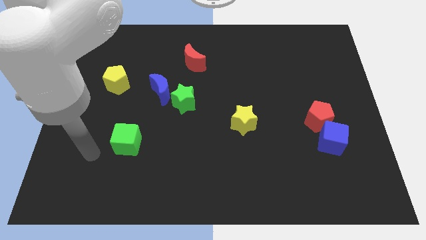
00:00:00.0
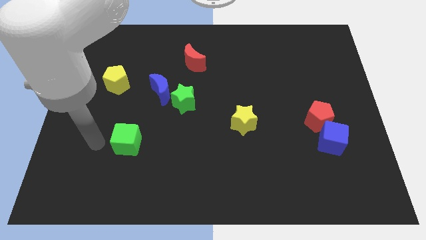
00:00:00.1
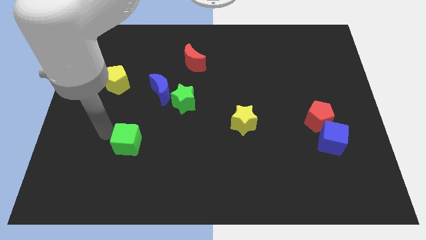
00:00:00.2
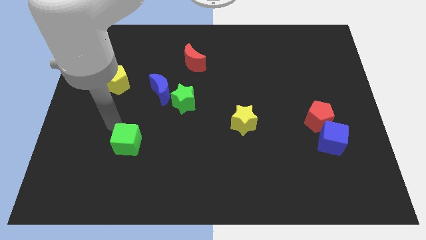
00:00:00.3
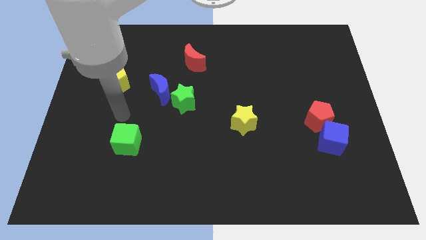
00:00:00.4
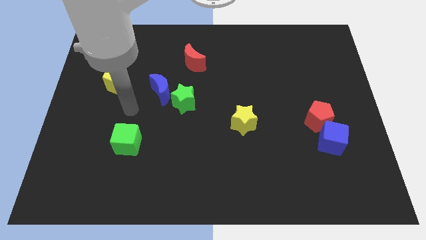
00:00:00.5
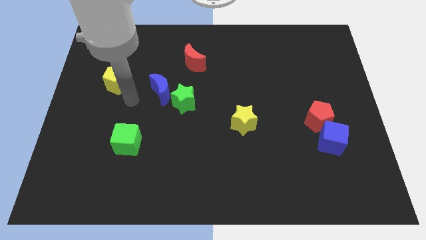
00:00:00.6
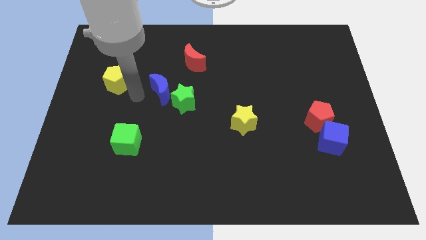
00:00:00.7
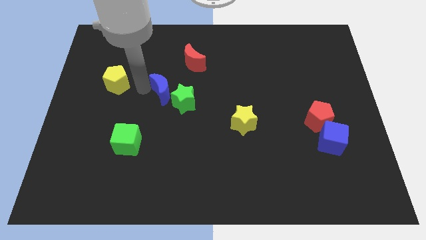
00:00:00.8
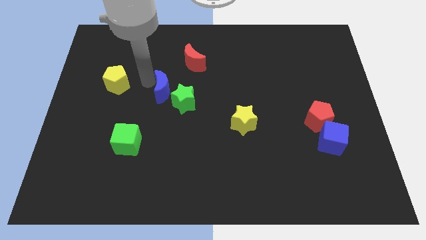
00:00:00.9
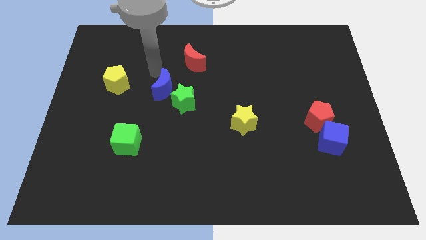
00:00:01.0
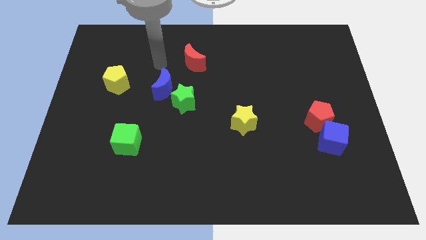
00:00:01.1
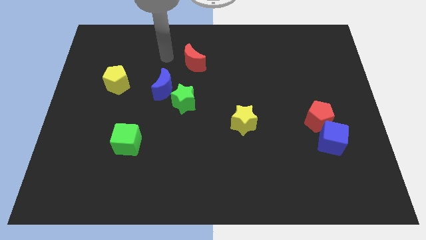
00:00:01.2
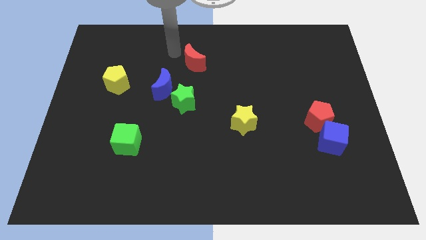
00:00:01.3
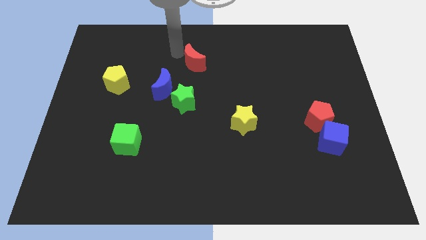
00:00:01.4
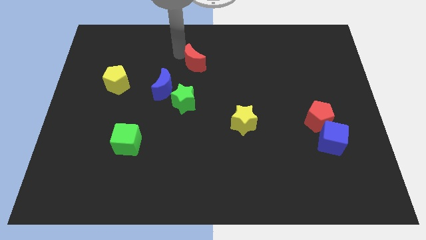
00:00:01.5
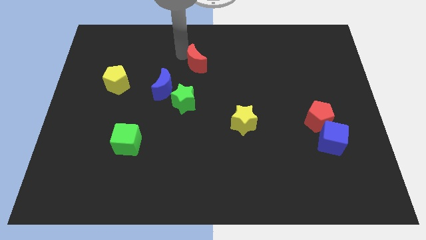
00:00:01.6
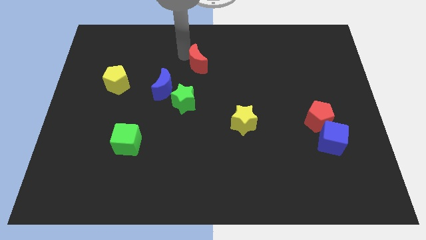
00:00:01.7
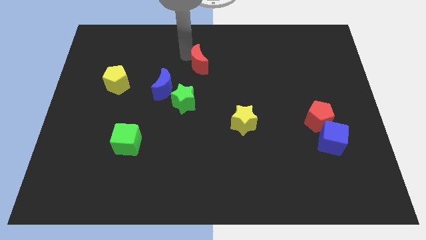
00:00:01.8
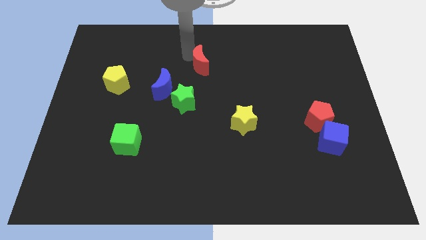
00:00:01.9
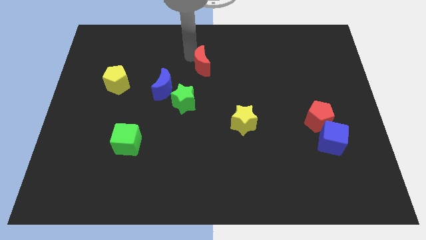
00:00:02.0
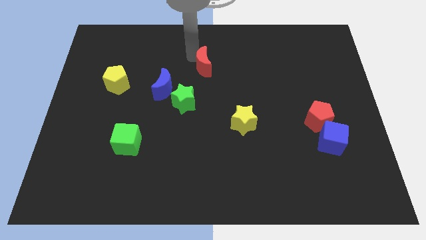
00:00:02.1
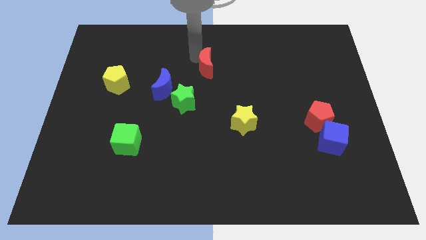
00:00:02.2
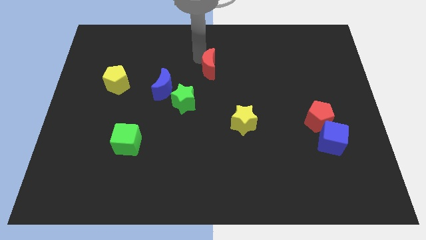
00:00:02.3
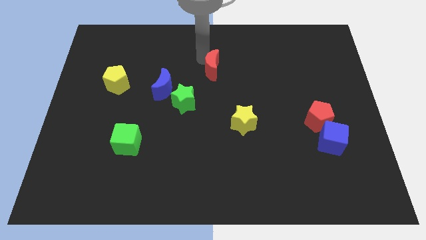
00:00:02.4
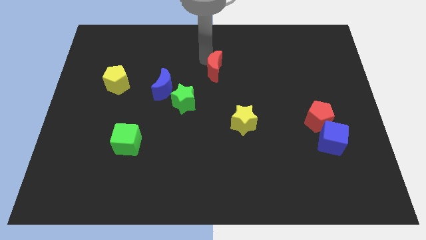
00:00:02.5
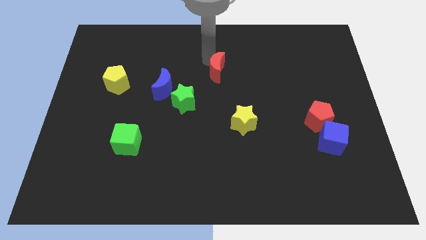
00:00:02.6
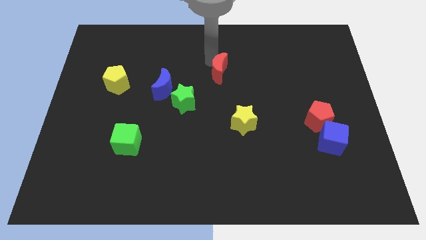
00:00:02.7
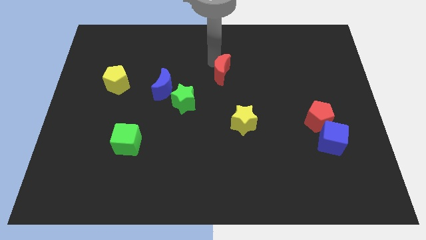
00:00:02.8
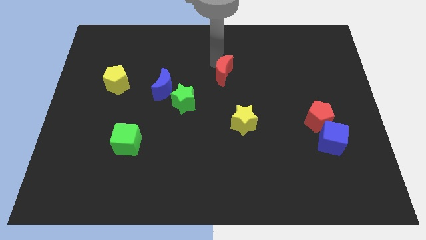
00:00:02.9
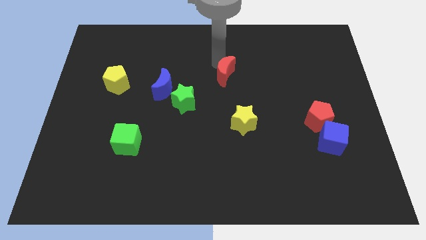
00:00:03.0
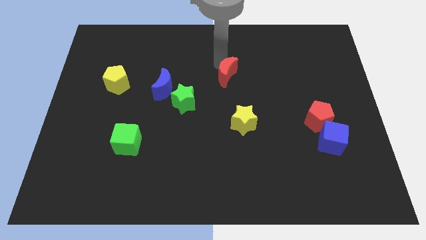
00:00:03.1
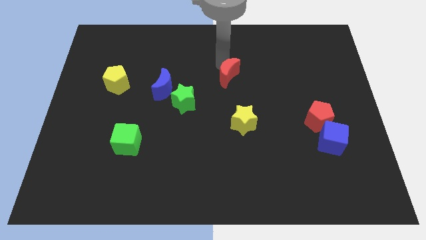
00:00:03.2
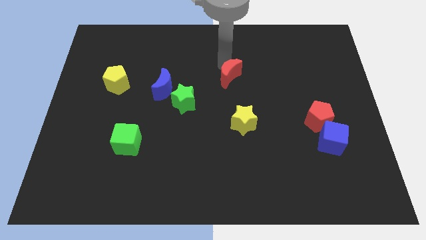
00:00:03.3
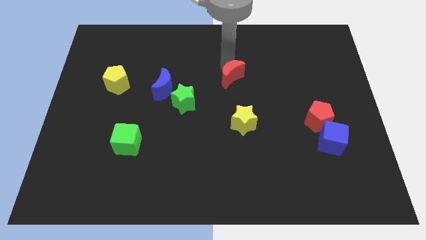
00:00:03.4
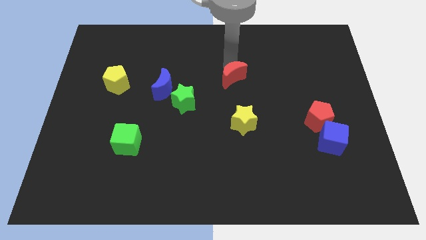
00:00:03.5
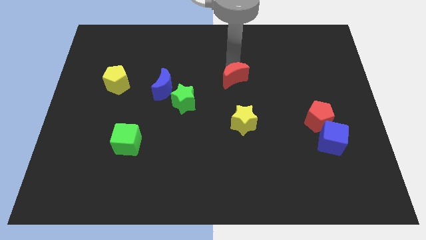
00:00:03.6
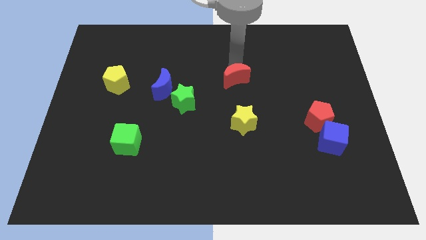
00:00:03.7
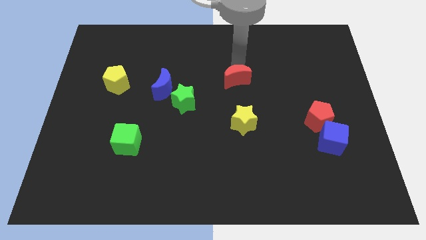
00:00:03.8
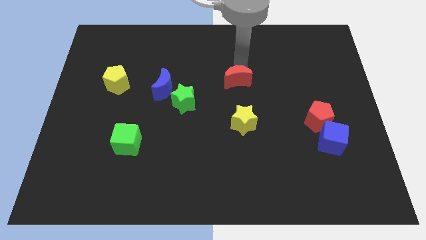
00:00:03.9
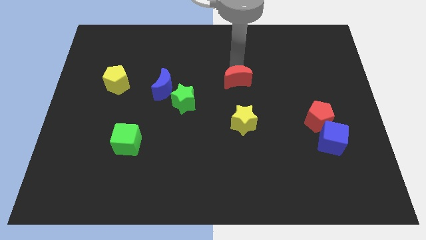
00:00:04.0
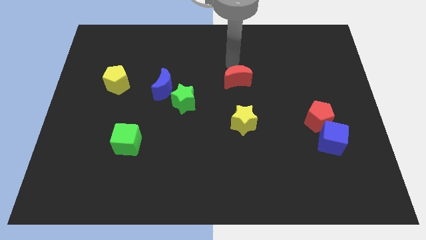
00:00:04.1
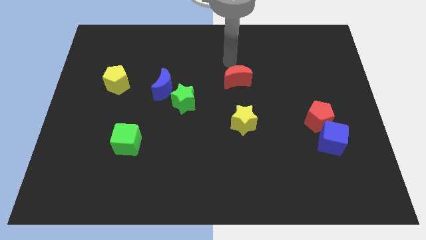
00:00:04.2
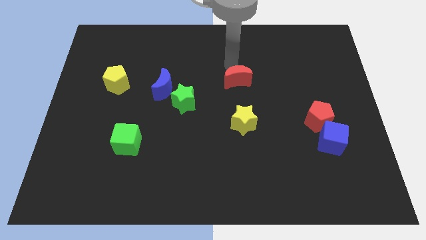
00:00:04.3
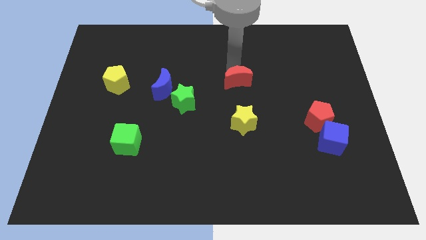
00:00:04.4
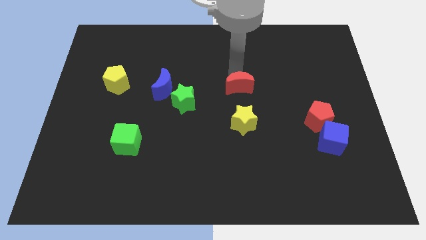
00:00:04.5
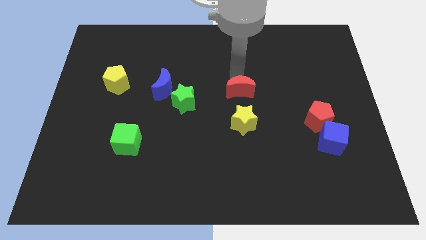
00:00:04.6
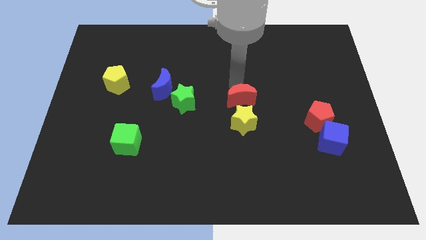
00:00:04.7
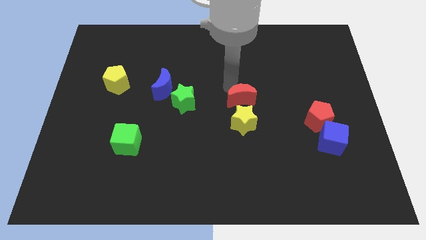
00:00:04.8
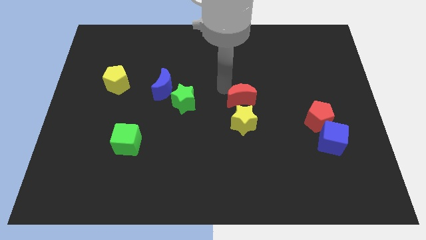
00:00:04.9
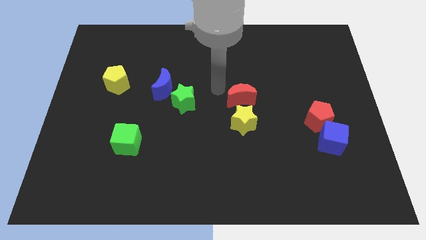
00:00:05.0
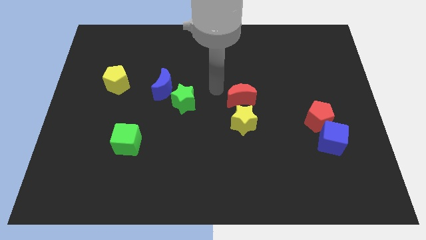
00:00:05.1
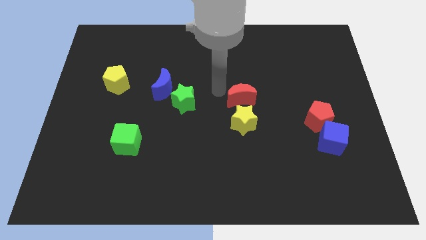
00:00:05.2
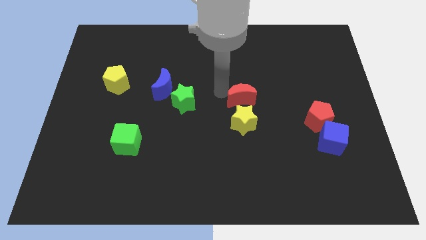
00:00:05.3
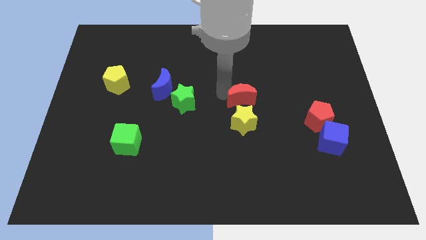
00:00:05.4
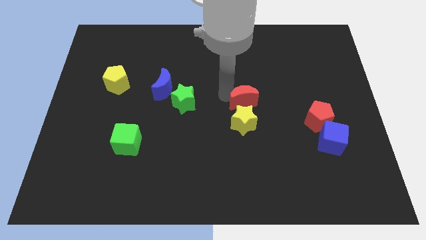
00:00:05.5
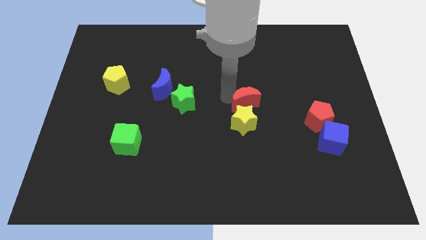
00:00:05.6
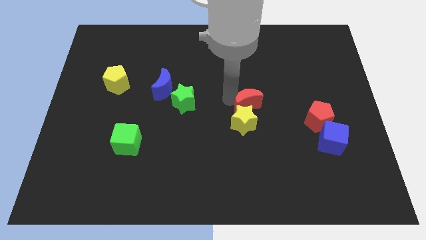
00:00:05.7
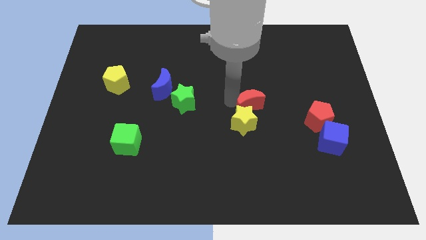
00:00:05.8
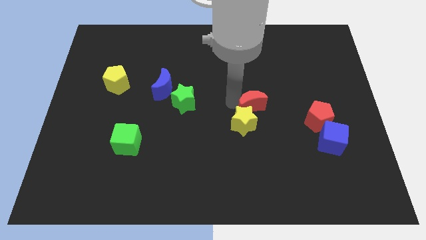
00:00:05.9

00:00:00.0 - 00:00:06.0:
move the red moon diagonally downwards and to the right

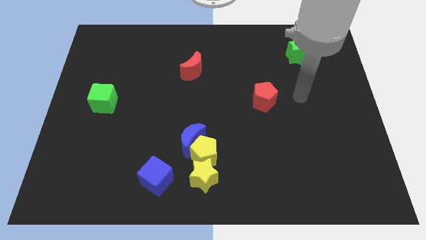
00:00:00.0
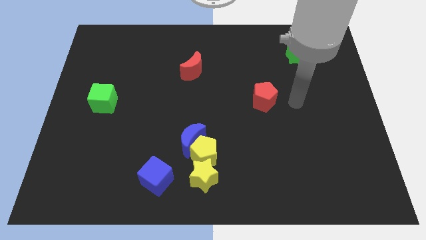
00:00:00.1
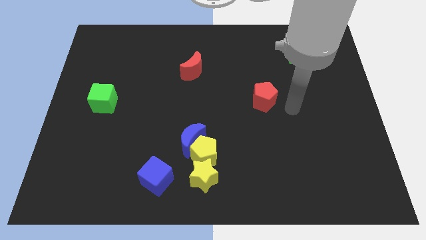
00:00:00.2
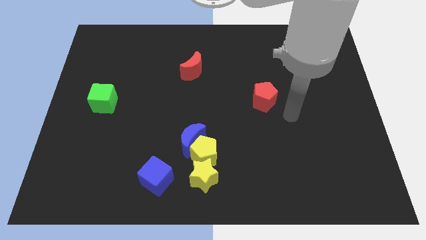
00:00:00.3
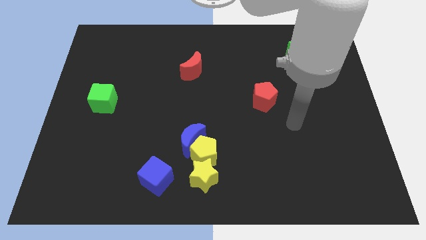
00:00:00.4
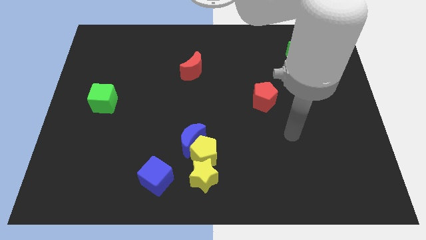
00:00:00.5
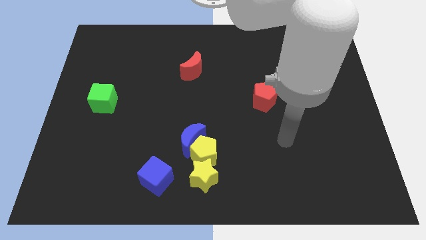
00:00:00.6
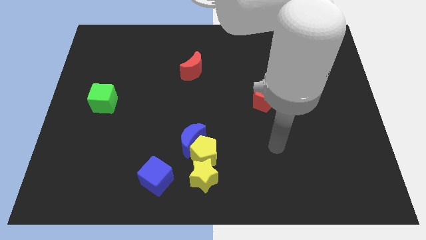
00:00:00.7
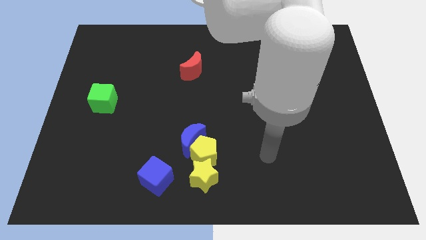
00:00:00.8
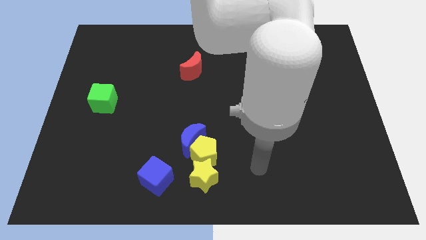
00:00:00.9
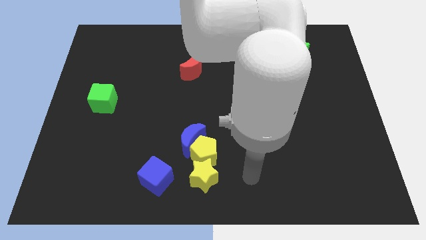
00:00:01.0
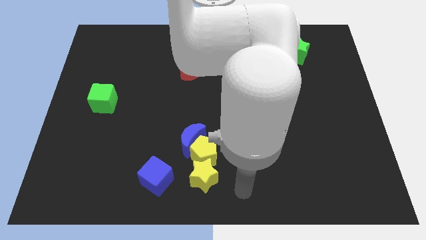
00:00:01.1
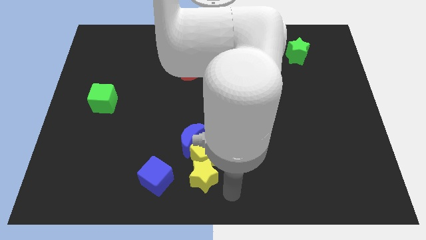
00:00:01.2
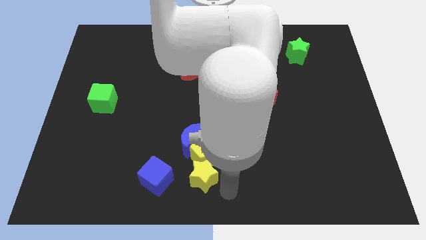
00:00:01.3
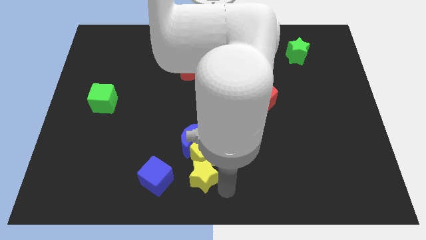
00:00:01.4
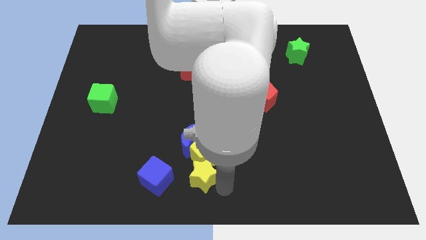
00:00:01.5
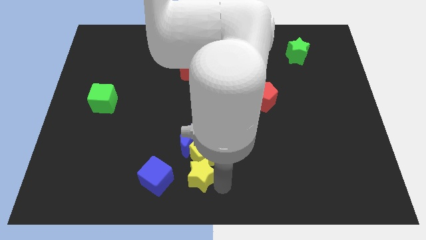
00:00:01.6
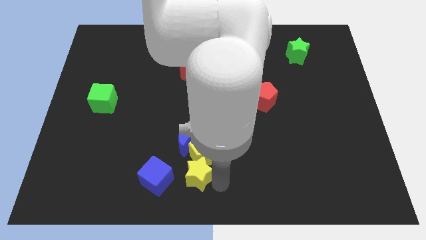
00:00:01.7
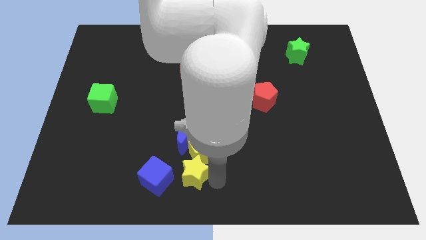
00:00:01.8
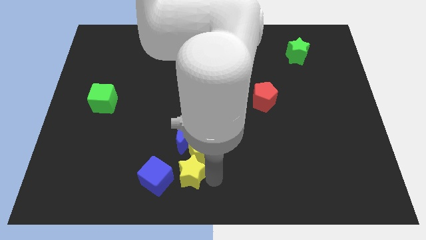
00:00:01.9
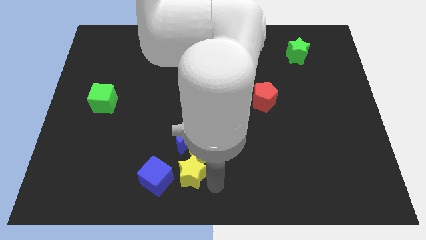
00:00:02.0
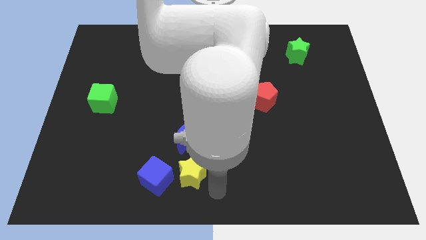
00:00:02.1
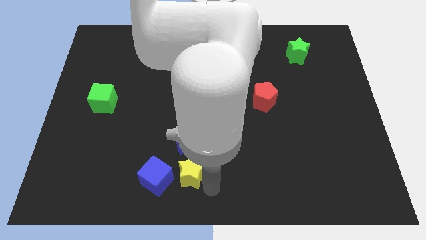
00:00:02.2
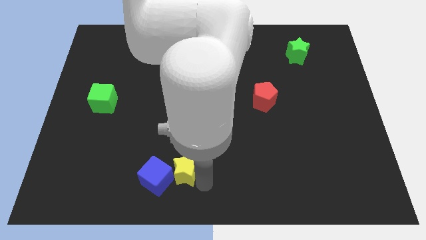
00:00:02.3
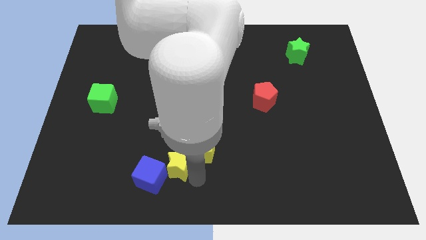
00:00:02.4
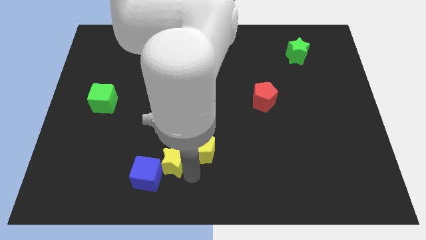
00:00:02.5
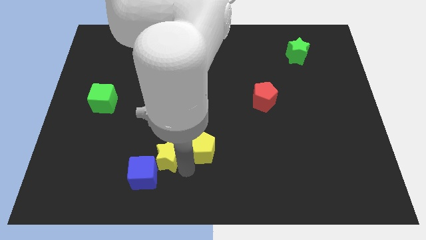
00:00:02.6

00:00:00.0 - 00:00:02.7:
move the yellow star a little left

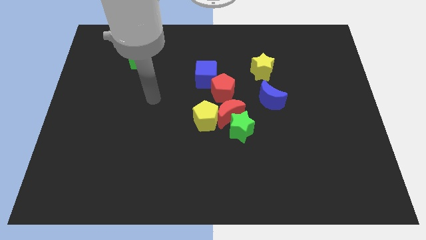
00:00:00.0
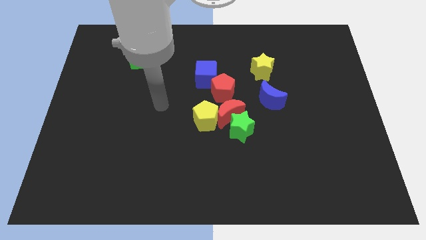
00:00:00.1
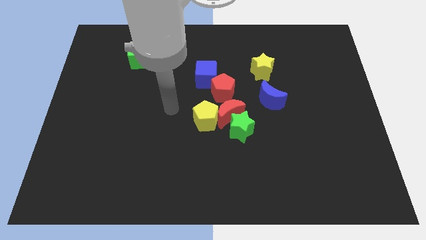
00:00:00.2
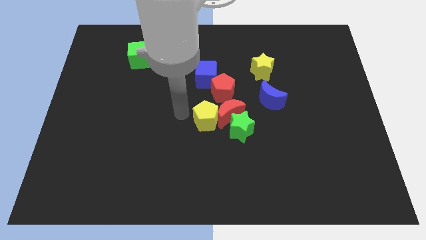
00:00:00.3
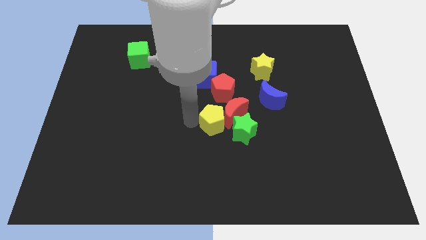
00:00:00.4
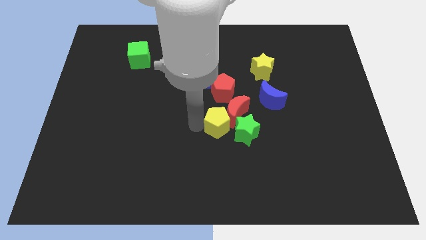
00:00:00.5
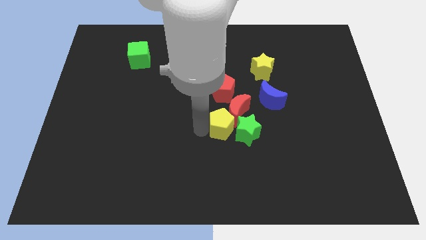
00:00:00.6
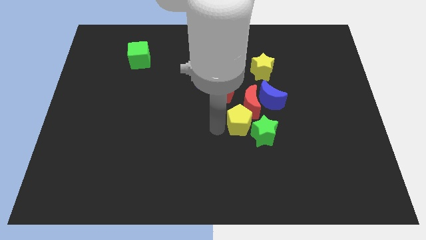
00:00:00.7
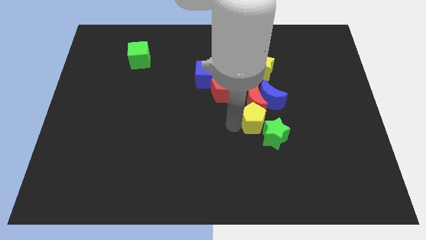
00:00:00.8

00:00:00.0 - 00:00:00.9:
slightly move the red moon up and then to the right
